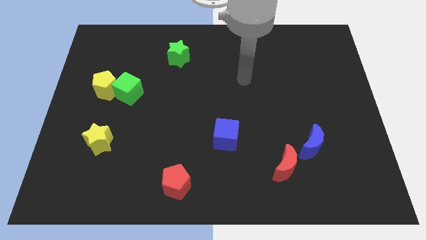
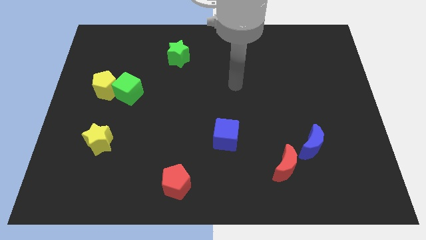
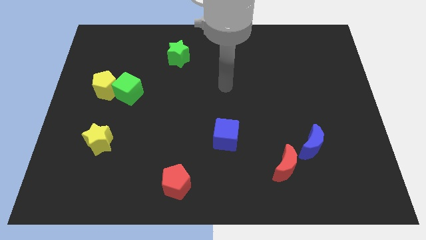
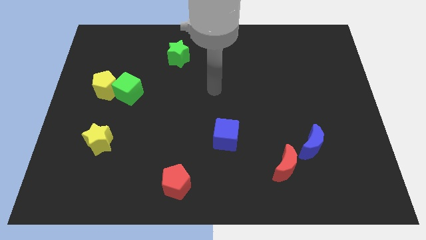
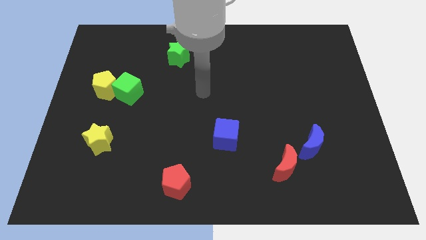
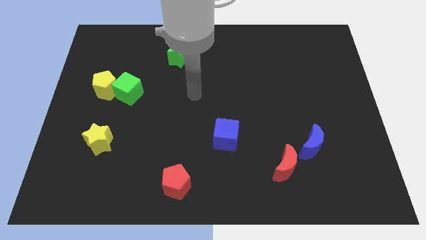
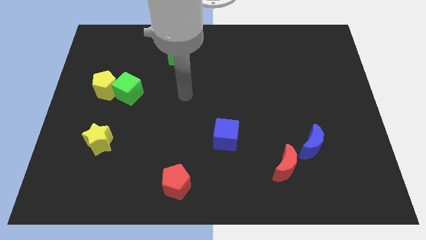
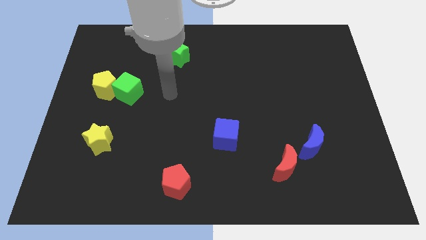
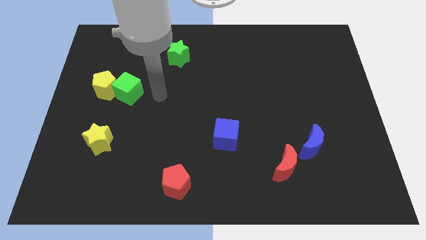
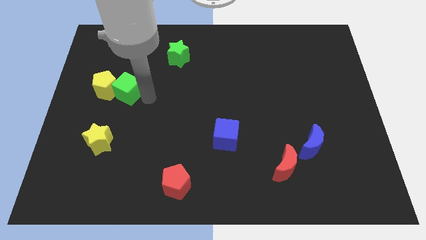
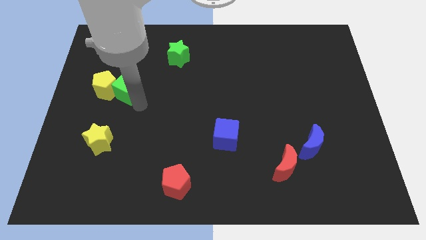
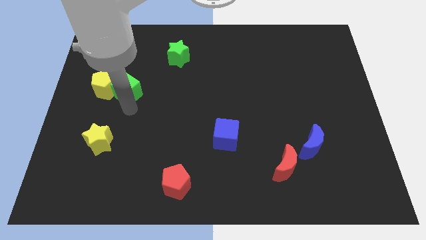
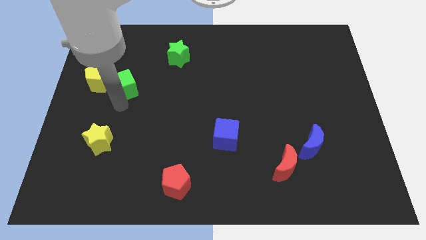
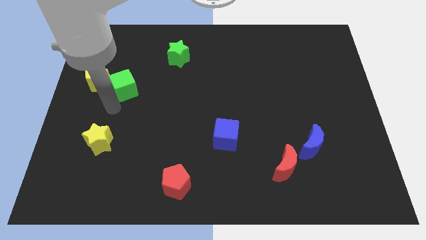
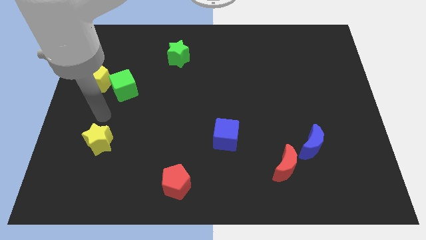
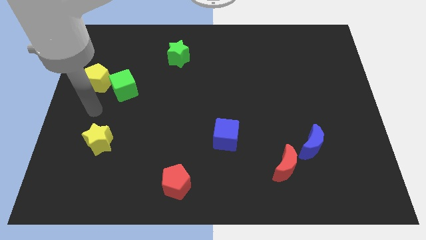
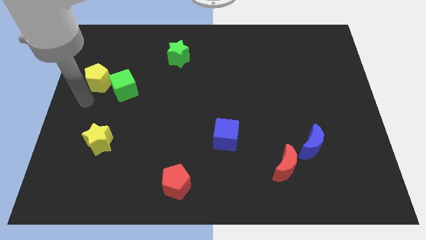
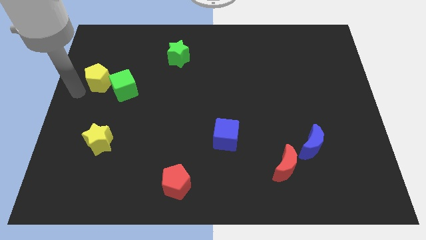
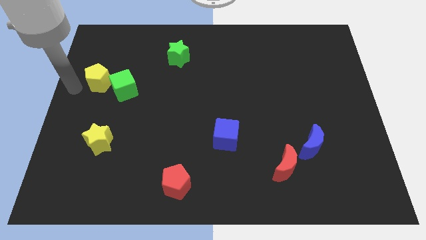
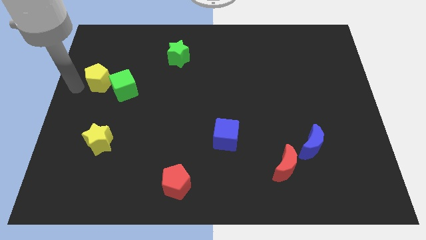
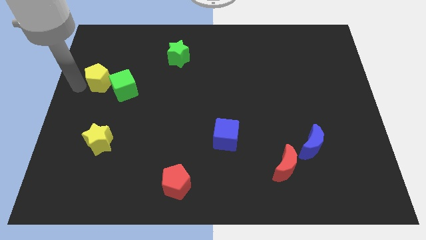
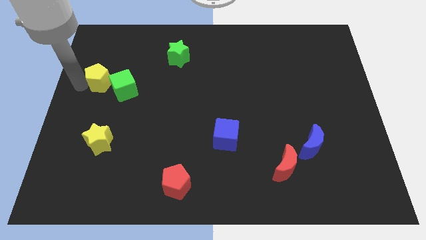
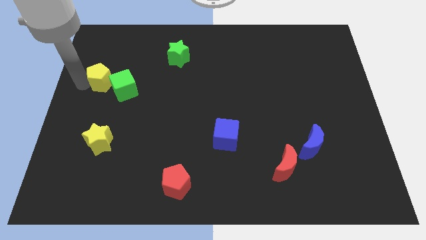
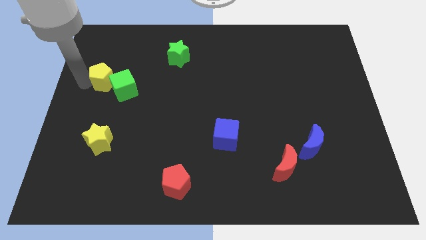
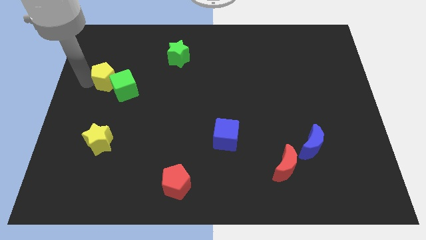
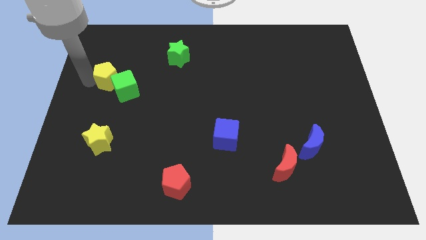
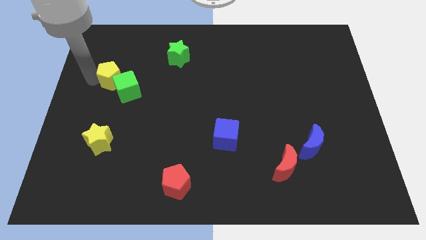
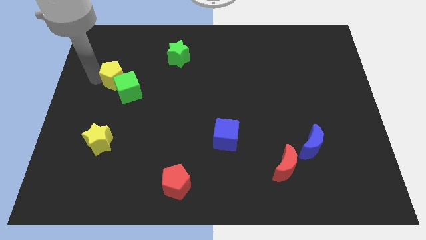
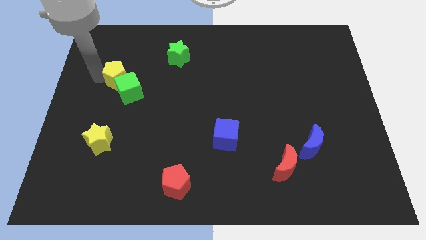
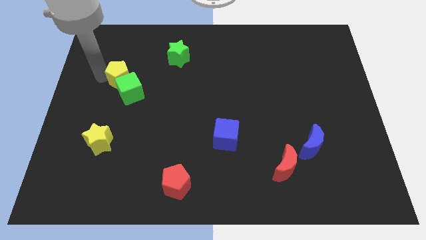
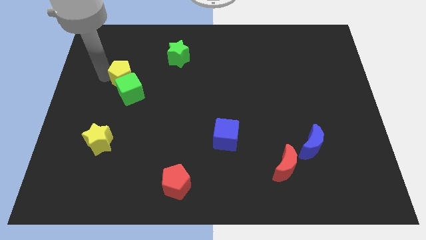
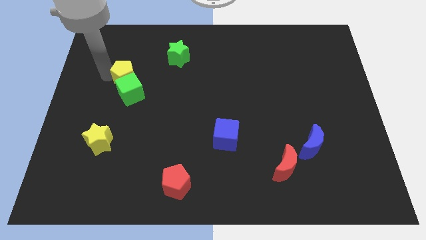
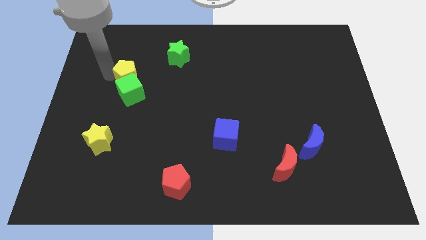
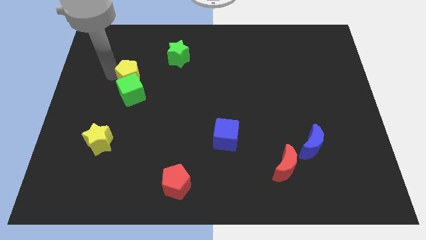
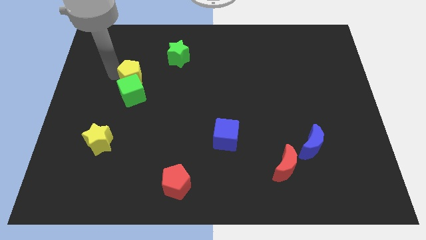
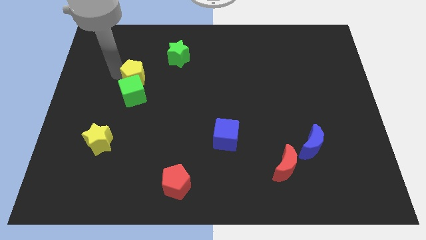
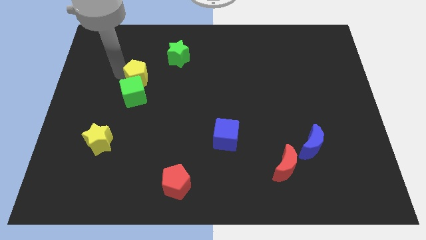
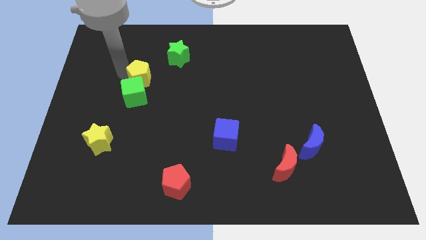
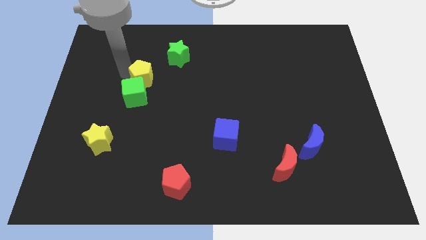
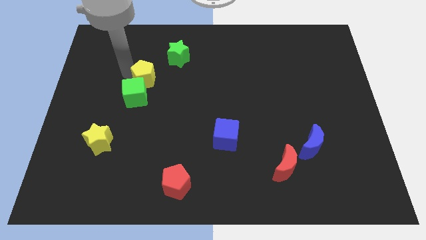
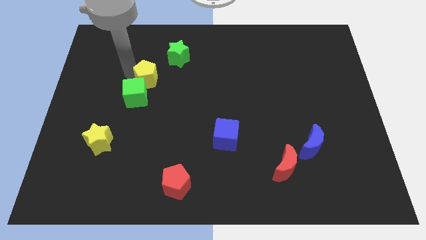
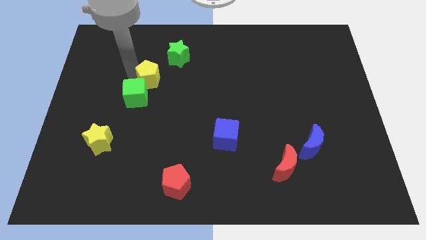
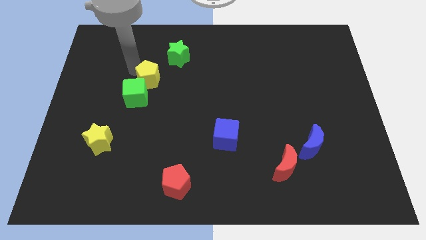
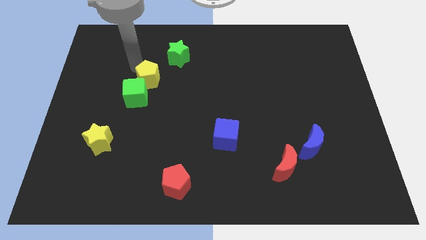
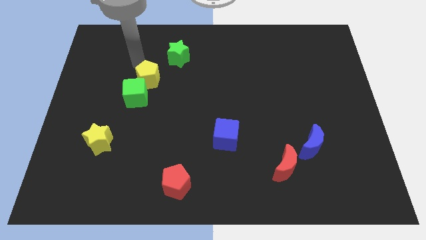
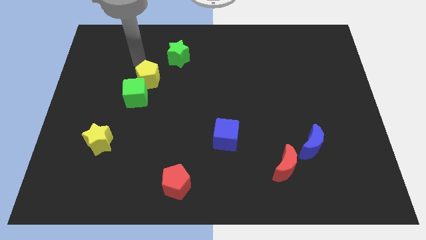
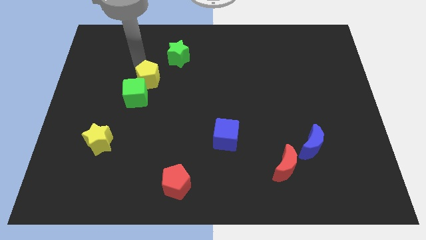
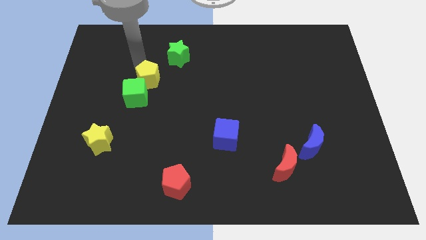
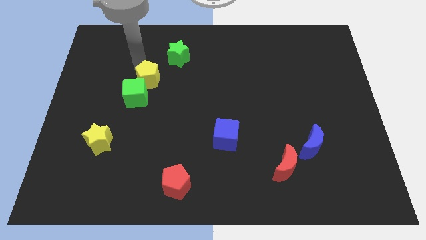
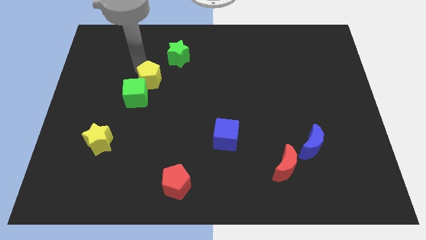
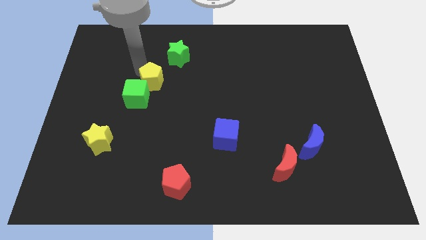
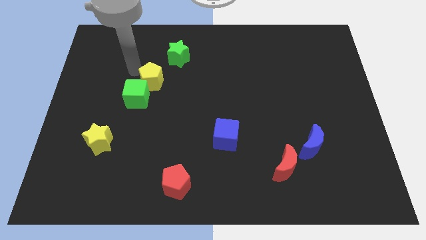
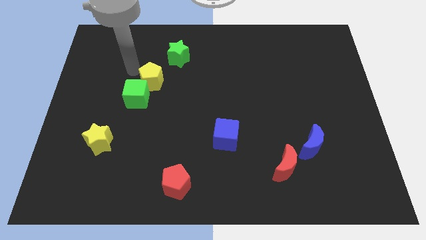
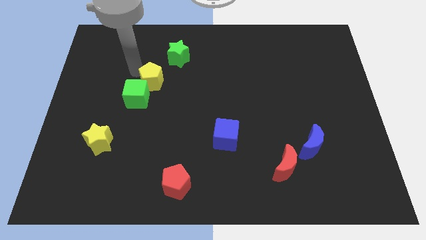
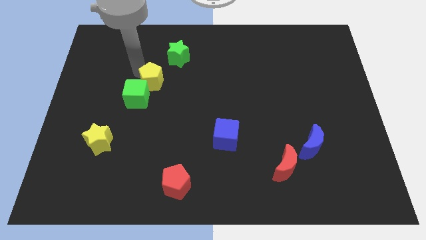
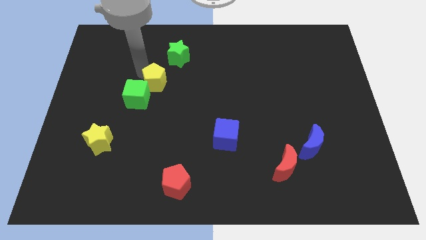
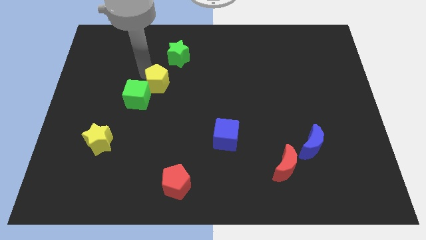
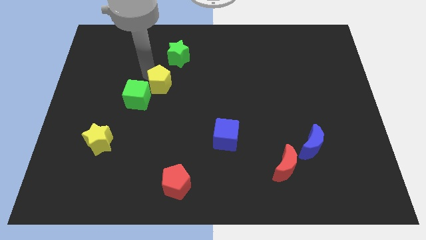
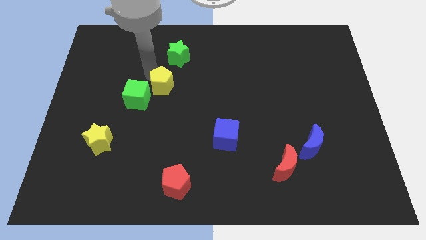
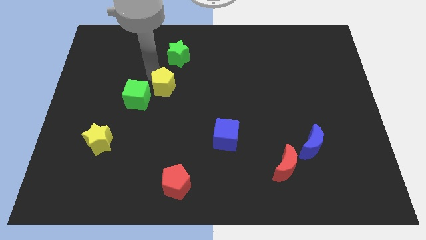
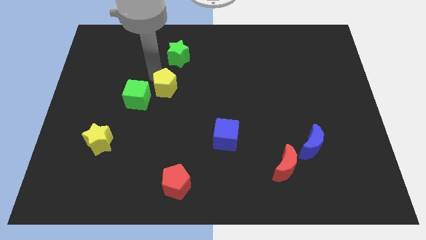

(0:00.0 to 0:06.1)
move the yellow pentagon to the center

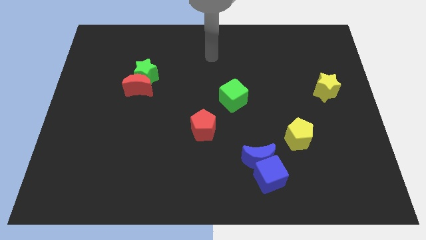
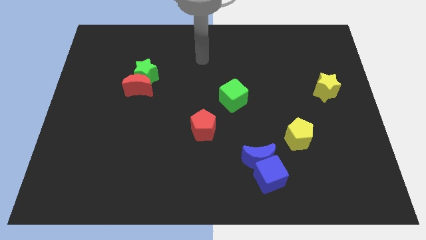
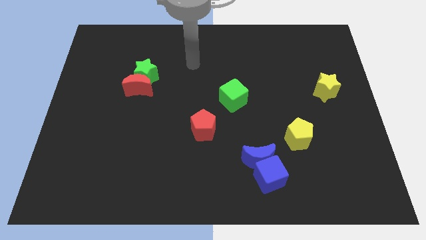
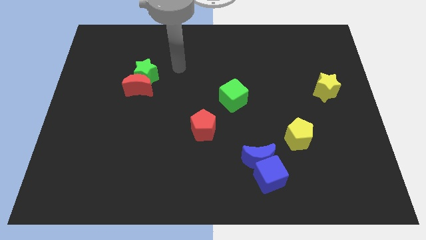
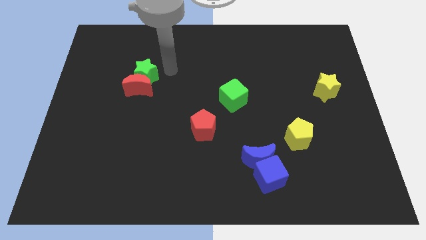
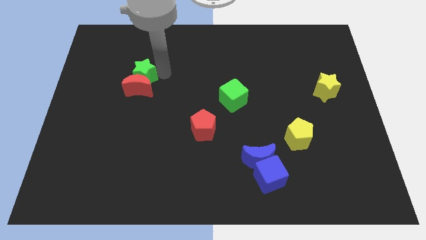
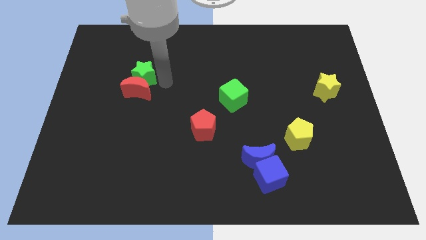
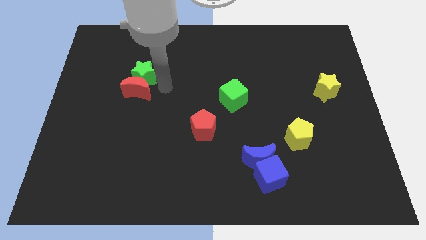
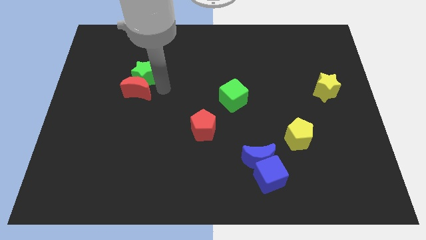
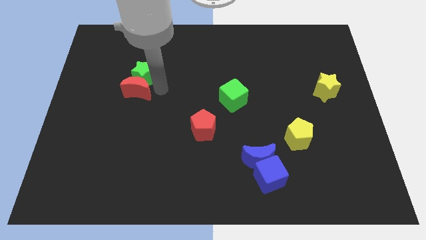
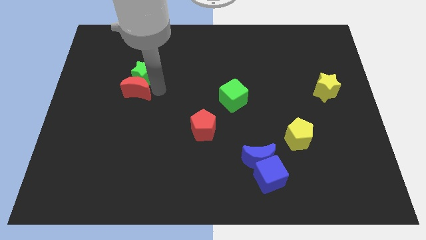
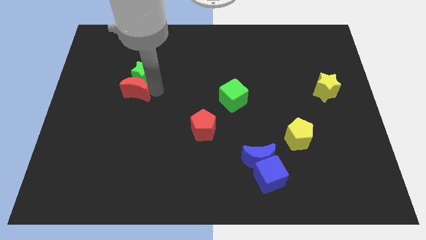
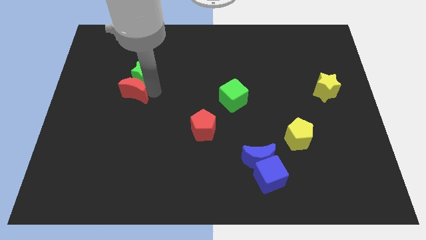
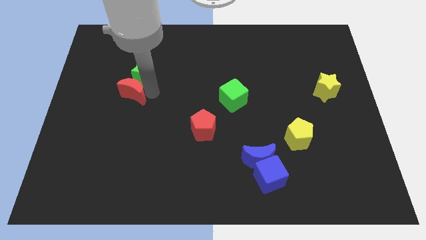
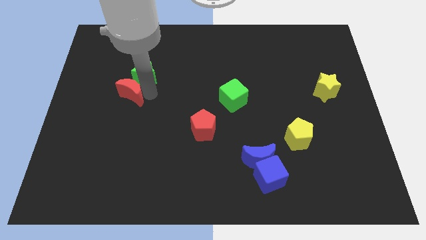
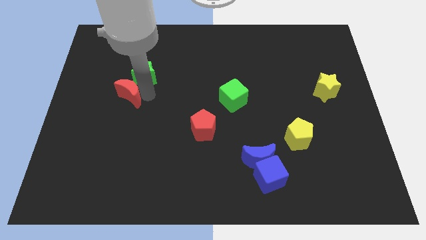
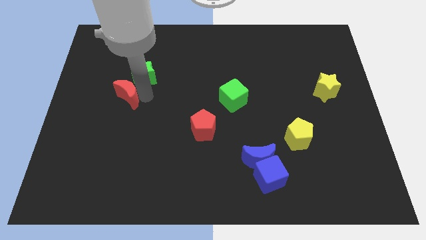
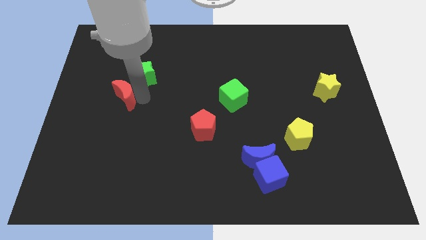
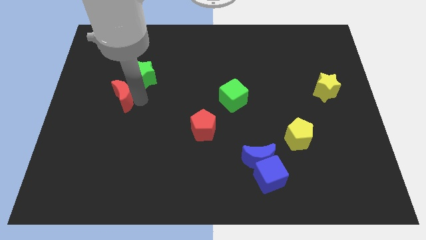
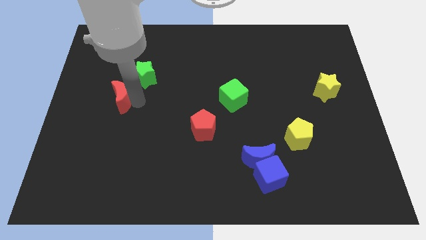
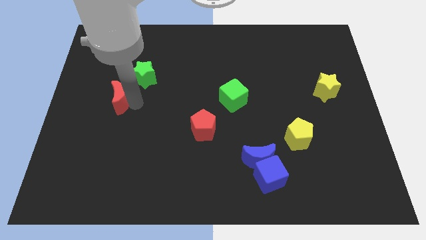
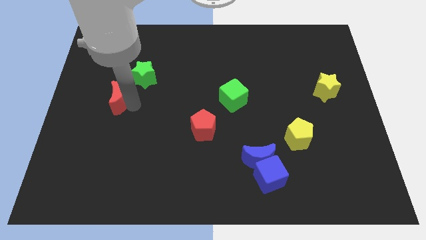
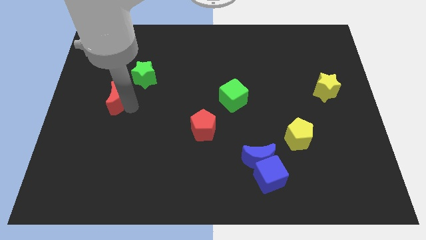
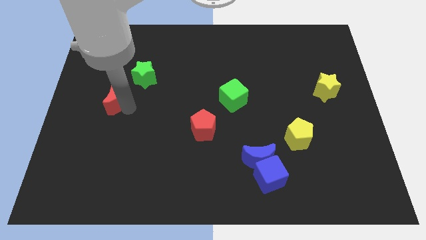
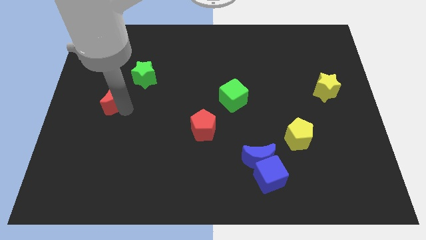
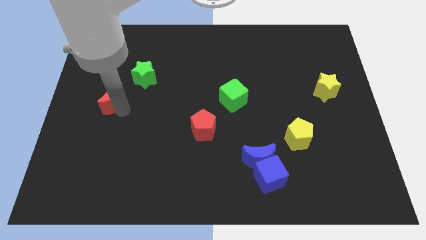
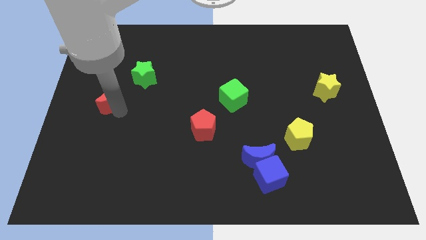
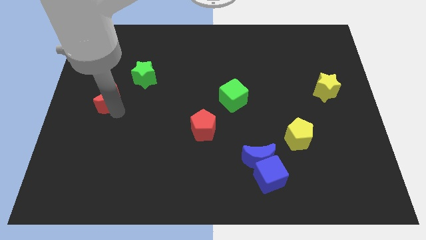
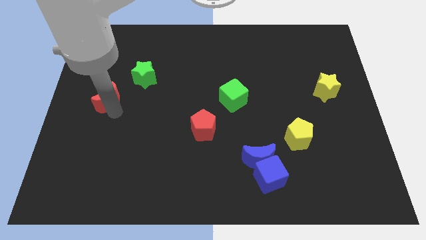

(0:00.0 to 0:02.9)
push the red moon to the left side
